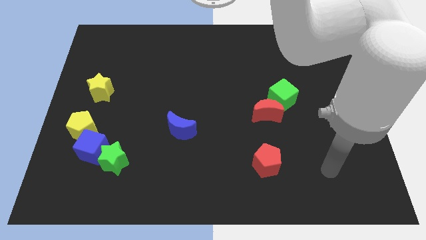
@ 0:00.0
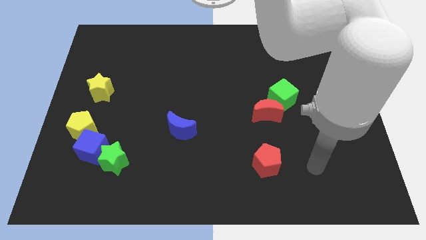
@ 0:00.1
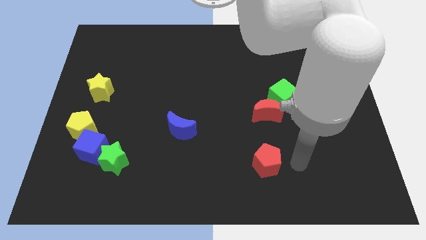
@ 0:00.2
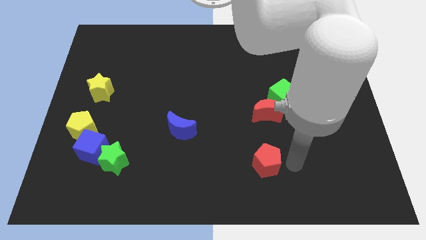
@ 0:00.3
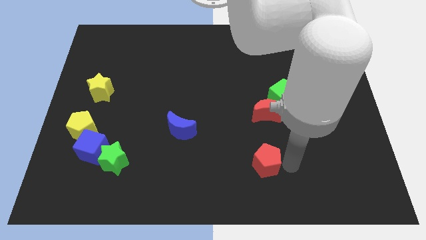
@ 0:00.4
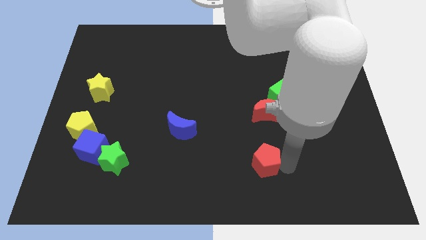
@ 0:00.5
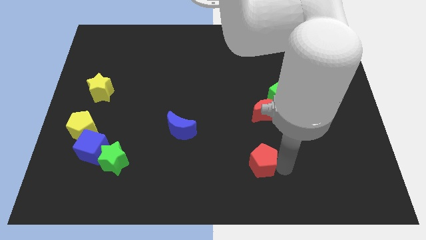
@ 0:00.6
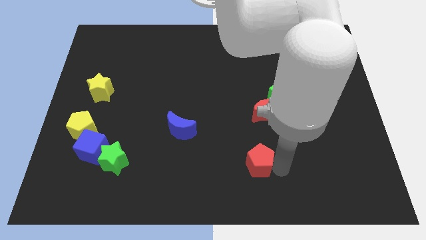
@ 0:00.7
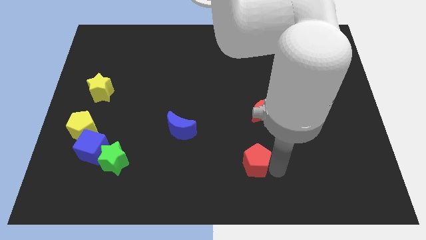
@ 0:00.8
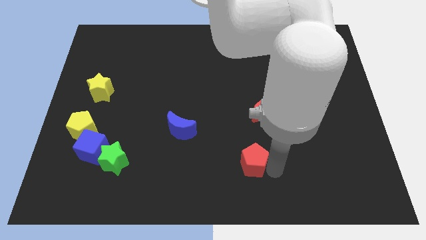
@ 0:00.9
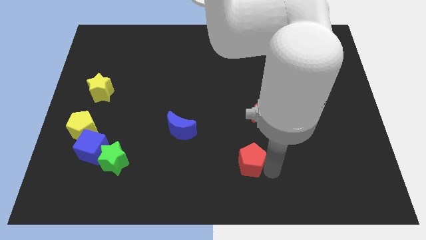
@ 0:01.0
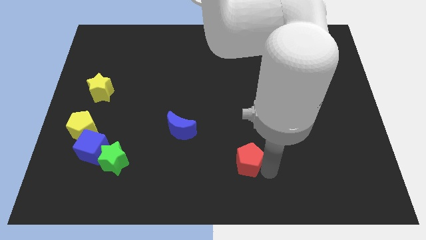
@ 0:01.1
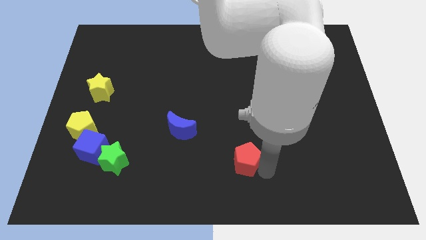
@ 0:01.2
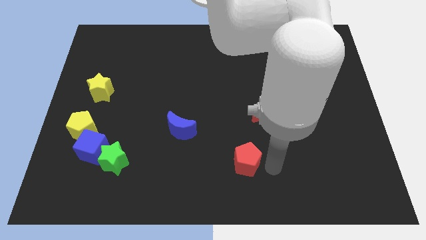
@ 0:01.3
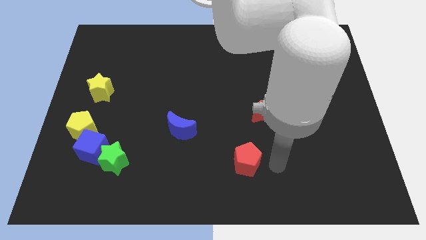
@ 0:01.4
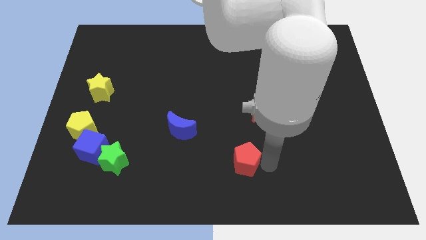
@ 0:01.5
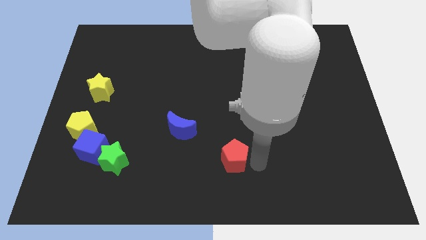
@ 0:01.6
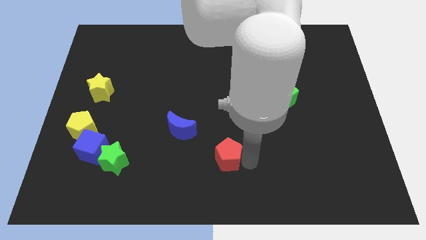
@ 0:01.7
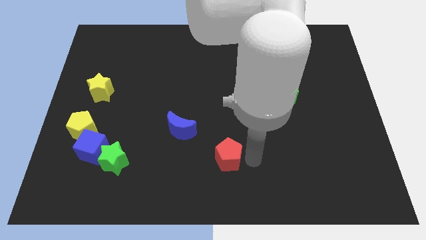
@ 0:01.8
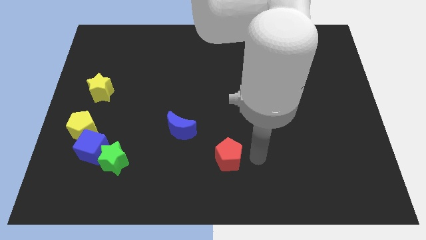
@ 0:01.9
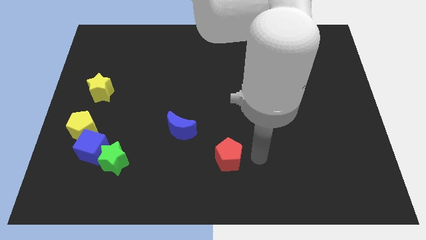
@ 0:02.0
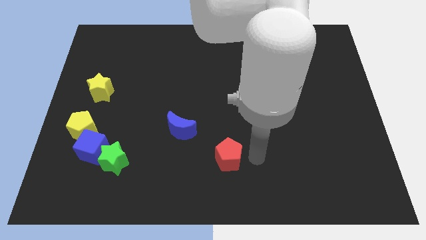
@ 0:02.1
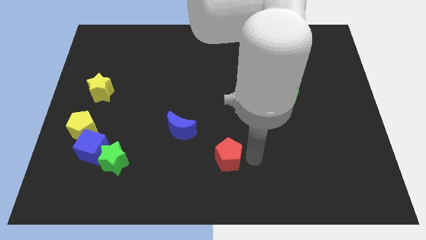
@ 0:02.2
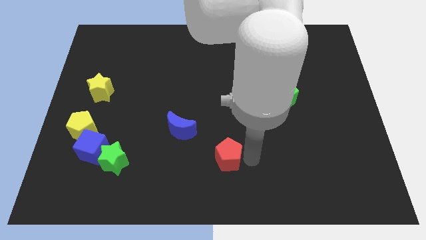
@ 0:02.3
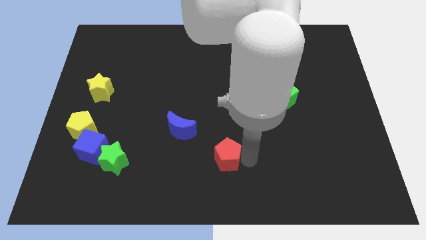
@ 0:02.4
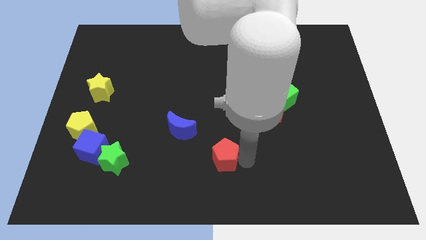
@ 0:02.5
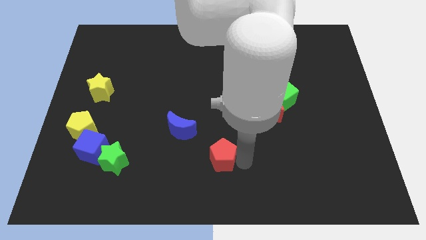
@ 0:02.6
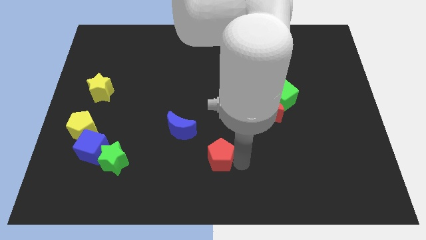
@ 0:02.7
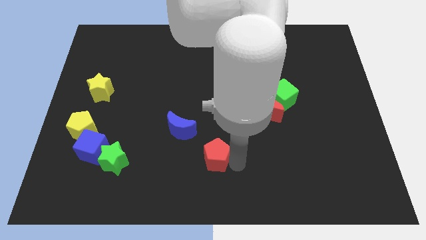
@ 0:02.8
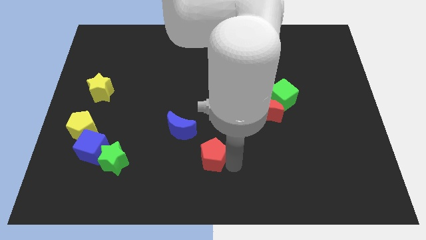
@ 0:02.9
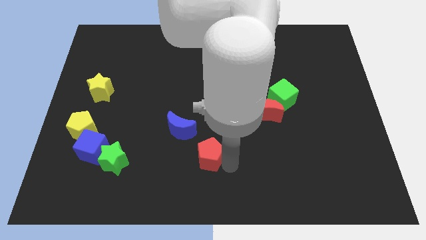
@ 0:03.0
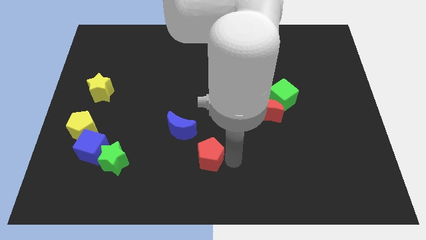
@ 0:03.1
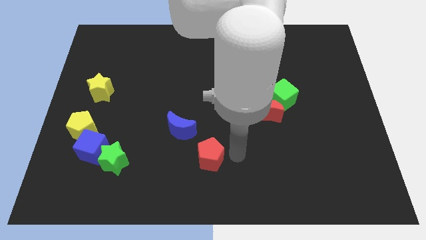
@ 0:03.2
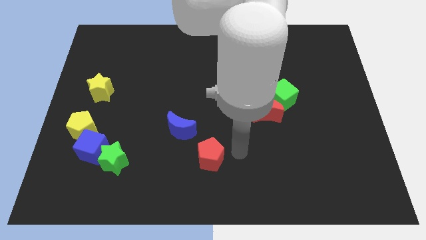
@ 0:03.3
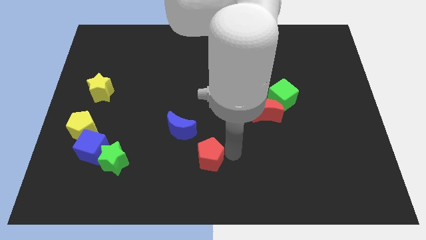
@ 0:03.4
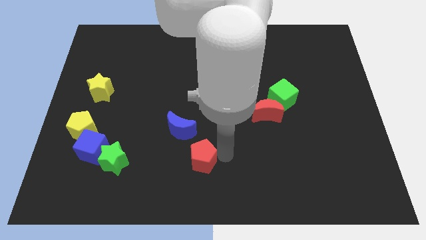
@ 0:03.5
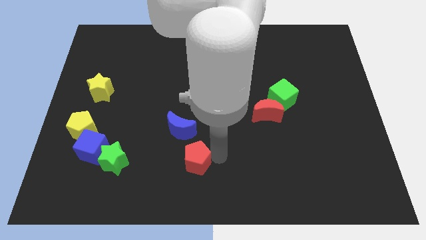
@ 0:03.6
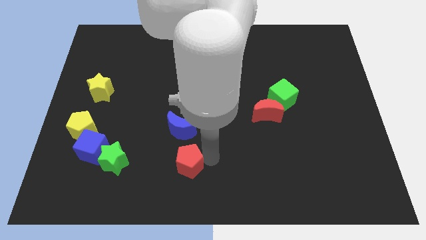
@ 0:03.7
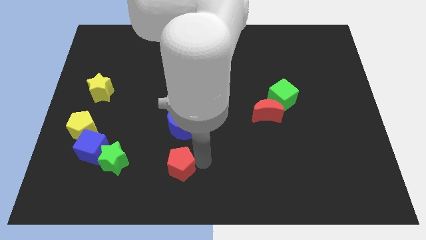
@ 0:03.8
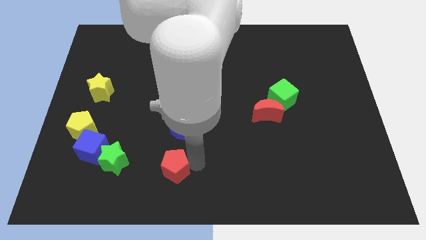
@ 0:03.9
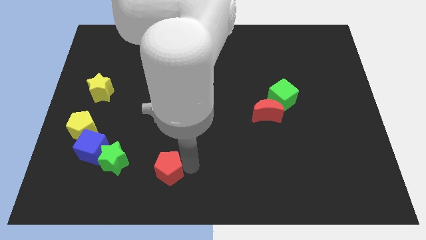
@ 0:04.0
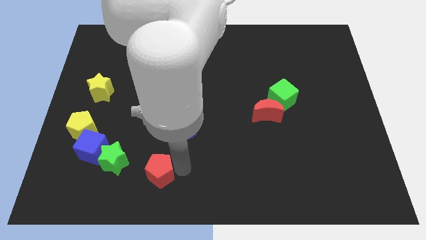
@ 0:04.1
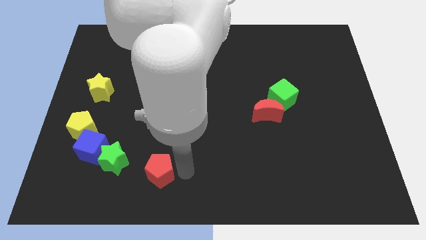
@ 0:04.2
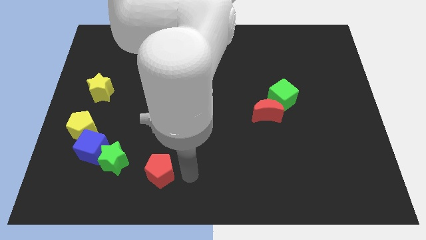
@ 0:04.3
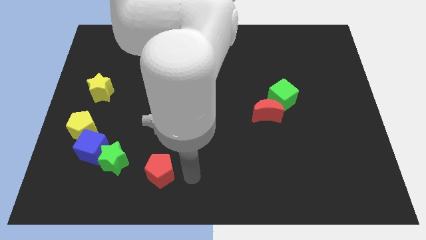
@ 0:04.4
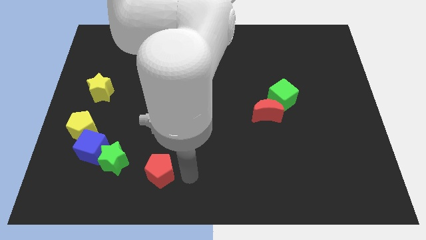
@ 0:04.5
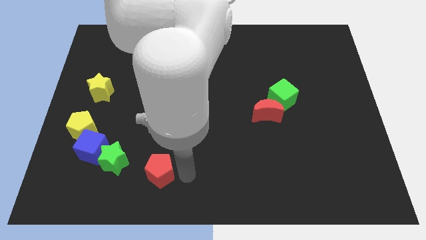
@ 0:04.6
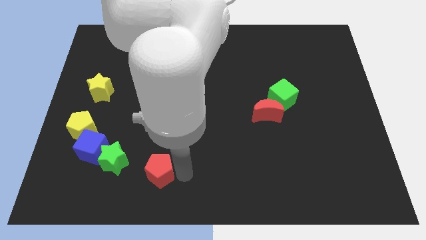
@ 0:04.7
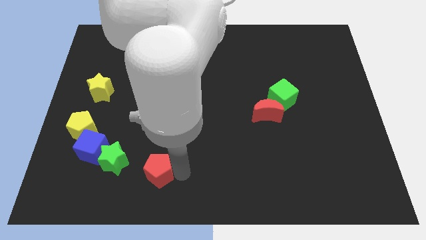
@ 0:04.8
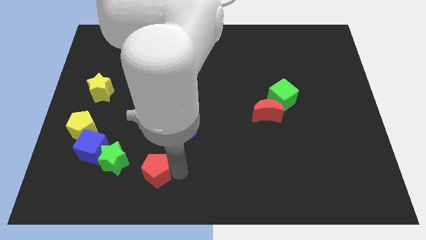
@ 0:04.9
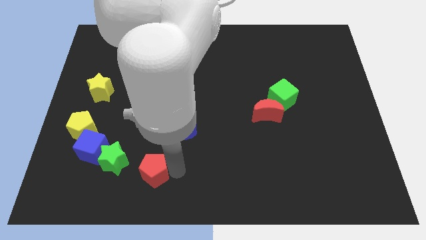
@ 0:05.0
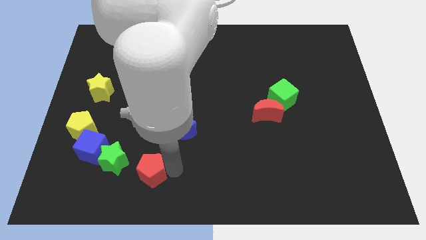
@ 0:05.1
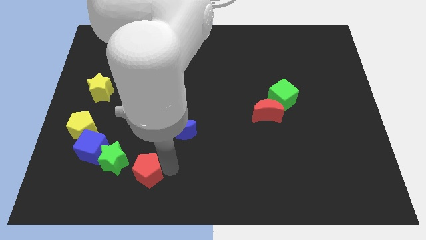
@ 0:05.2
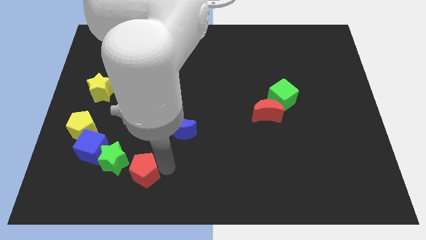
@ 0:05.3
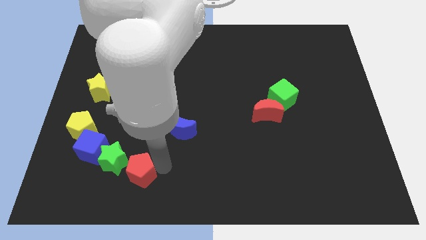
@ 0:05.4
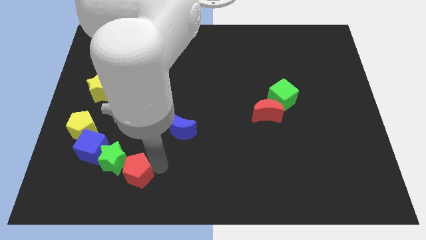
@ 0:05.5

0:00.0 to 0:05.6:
slide the red pentagon to the bottom right side of the blue cube
